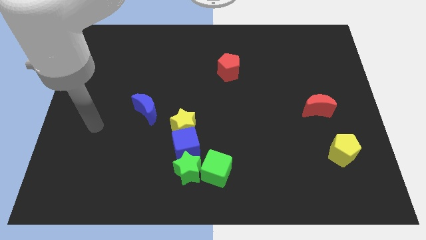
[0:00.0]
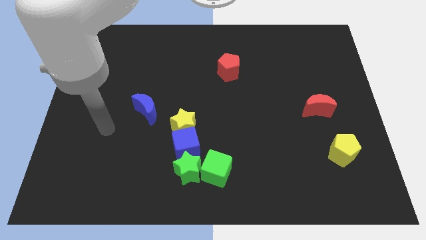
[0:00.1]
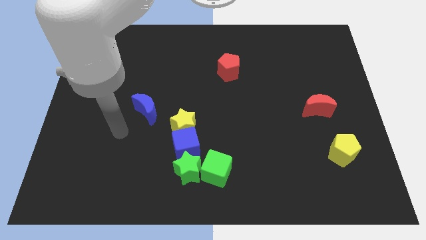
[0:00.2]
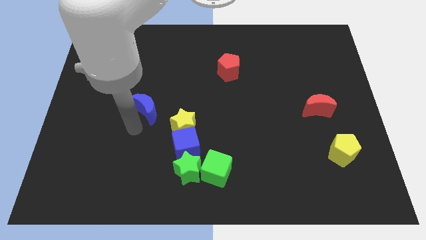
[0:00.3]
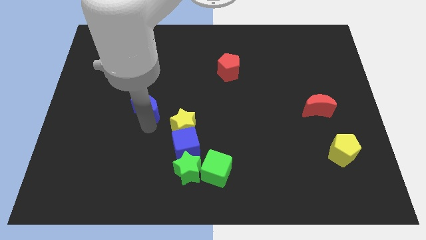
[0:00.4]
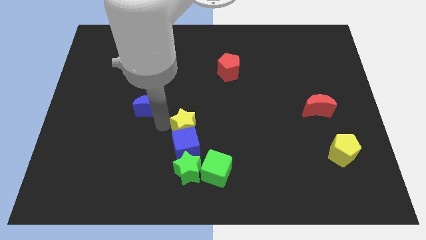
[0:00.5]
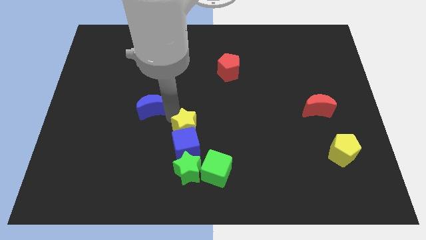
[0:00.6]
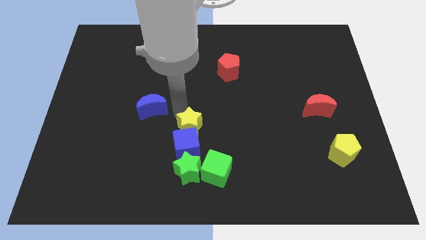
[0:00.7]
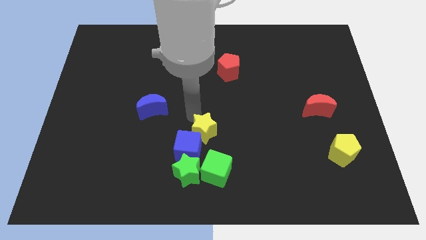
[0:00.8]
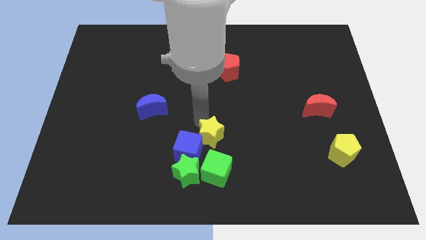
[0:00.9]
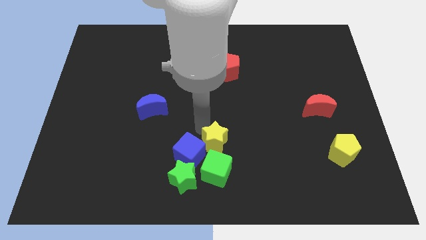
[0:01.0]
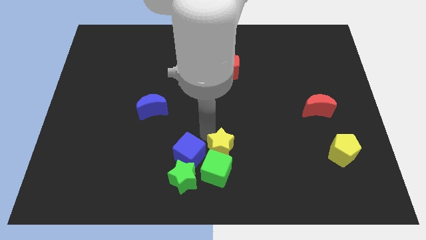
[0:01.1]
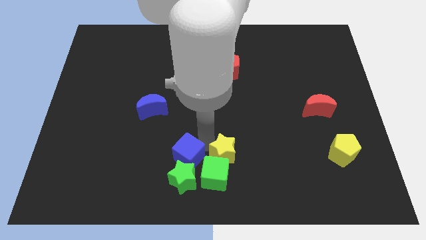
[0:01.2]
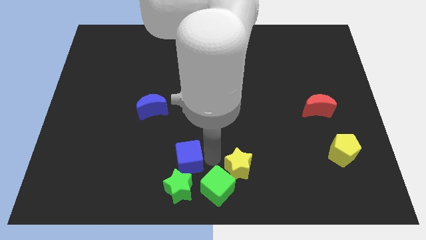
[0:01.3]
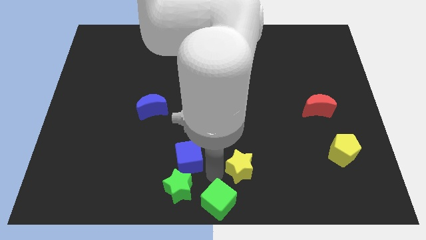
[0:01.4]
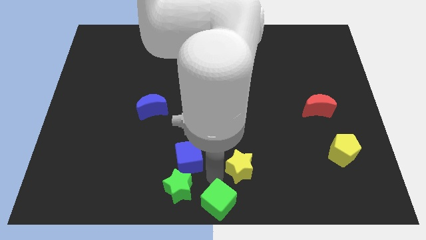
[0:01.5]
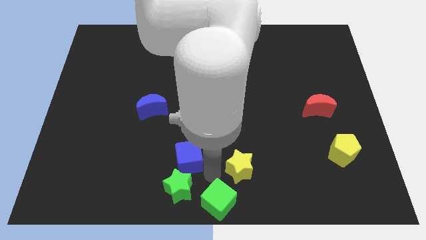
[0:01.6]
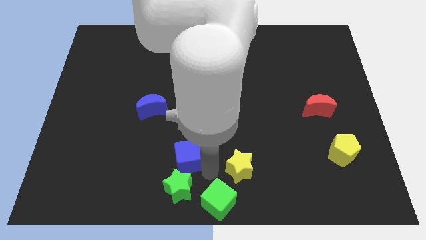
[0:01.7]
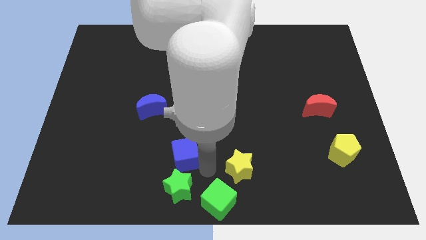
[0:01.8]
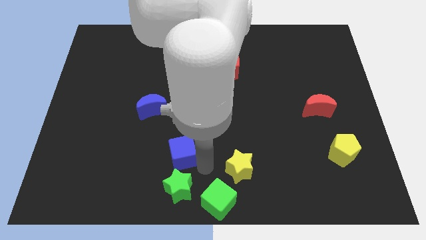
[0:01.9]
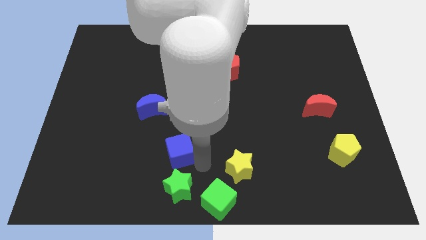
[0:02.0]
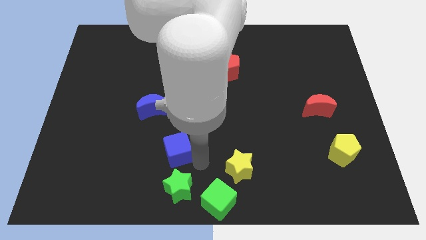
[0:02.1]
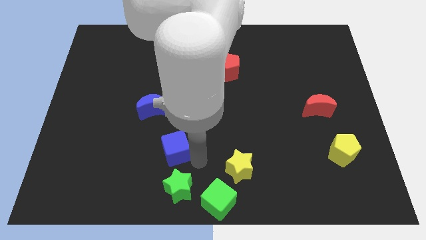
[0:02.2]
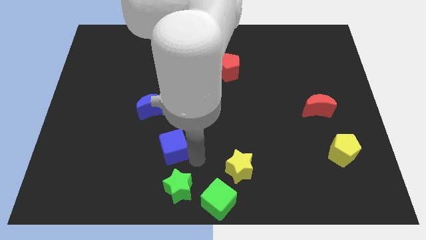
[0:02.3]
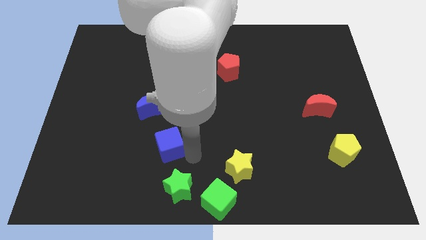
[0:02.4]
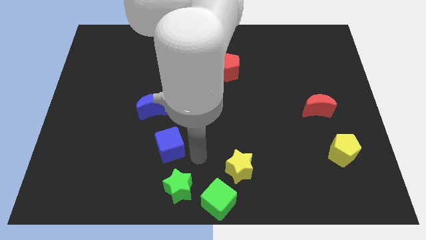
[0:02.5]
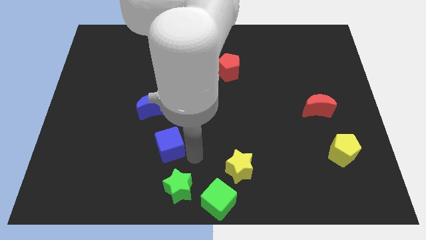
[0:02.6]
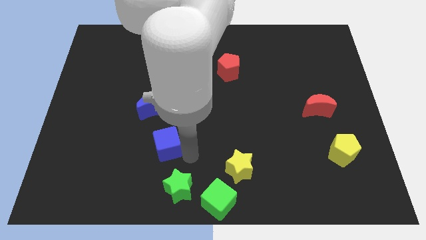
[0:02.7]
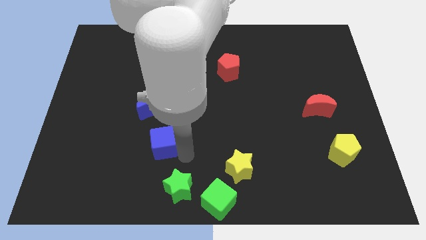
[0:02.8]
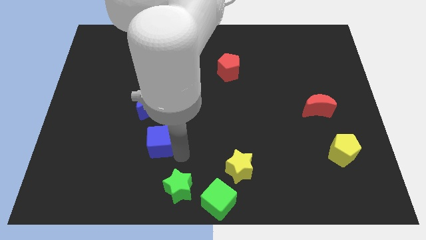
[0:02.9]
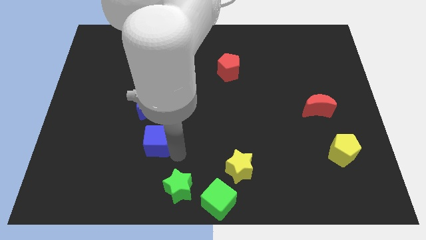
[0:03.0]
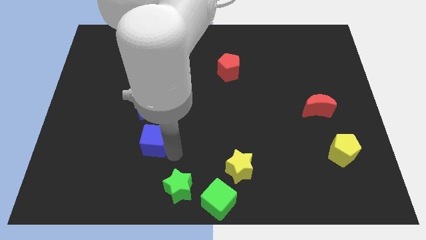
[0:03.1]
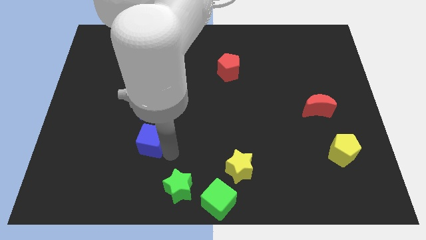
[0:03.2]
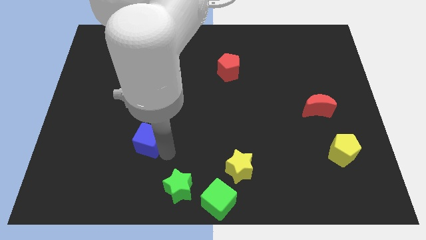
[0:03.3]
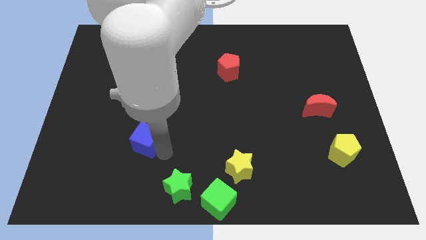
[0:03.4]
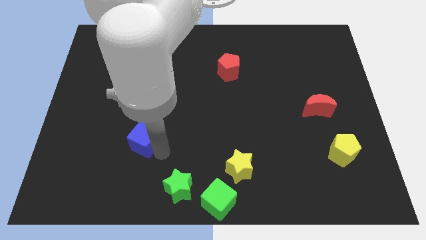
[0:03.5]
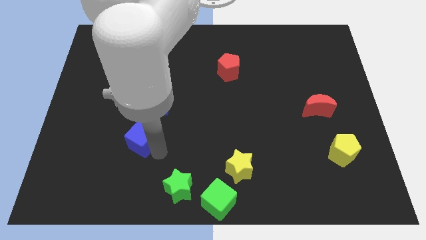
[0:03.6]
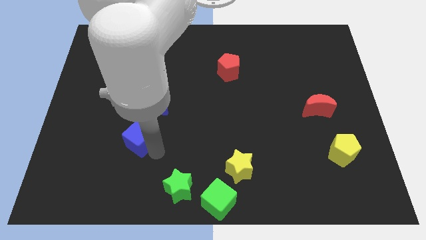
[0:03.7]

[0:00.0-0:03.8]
slightly push the blue cube upwards and to the left diagonally

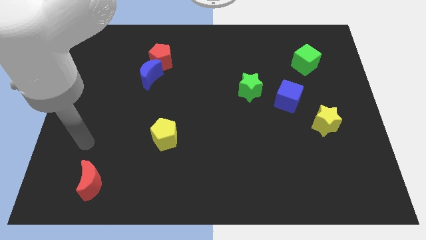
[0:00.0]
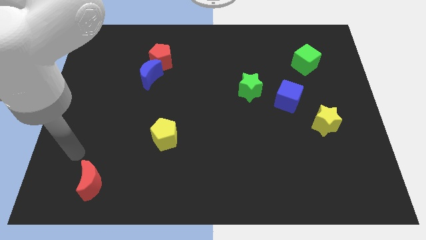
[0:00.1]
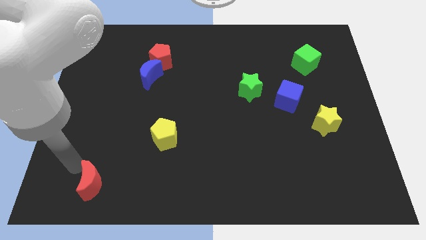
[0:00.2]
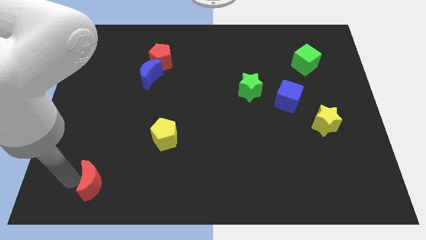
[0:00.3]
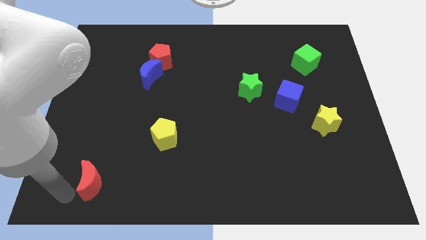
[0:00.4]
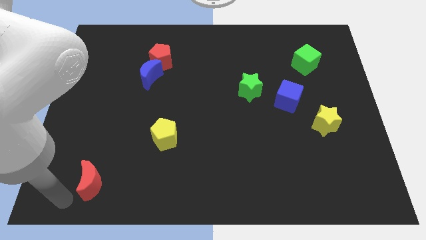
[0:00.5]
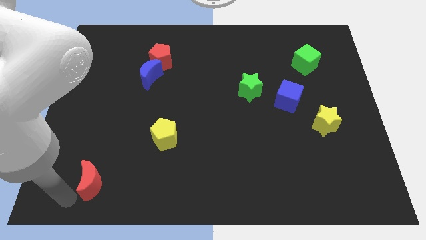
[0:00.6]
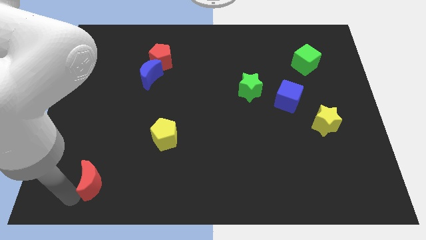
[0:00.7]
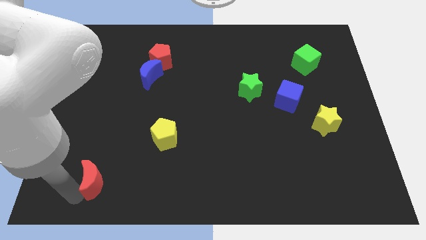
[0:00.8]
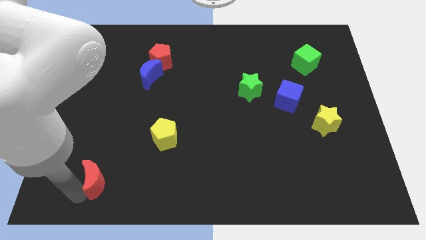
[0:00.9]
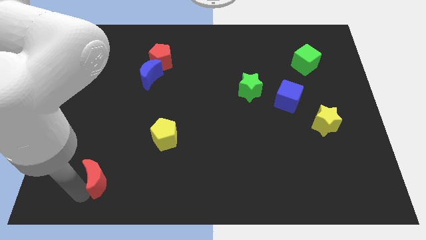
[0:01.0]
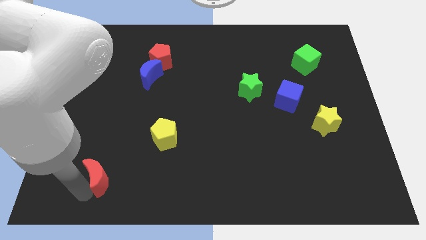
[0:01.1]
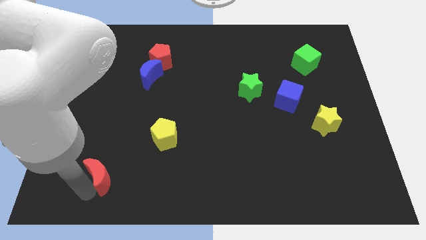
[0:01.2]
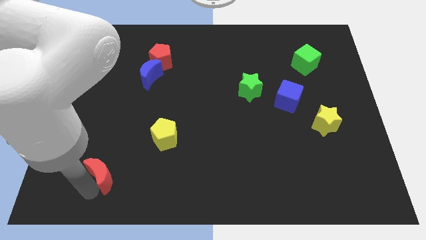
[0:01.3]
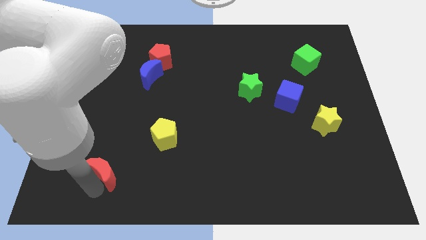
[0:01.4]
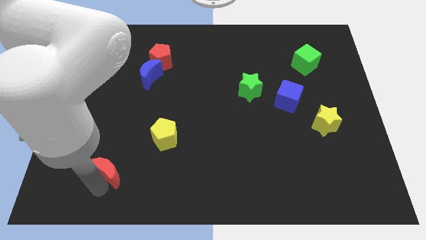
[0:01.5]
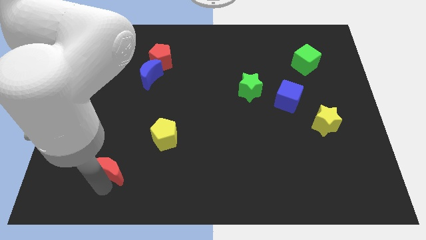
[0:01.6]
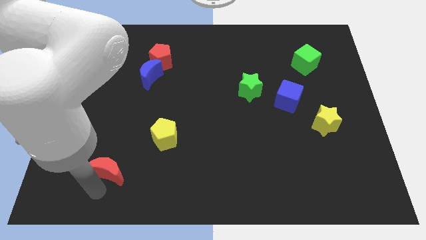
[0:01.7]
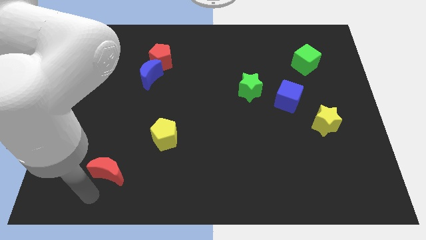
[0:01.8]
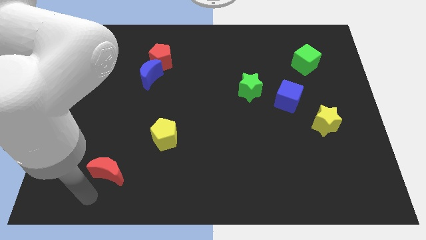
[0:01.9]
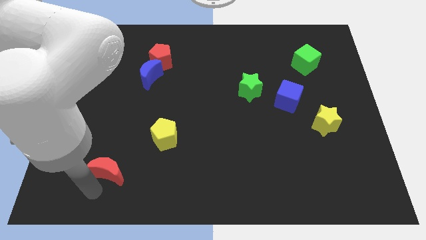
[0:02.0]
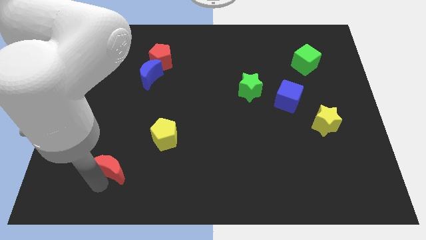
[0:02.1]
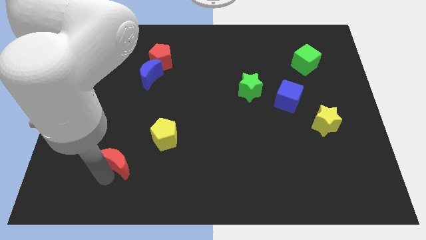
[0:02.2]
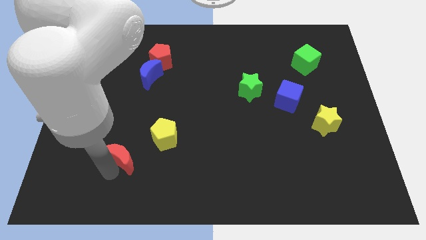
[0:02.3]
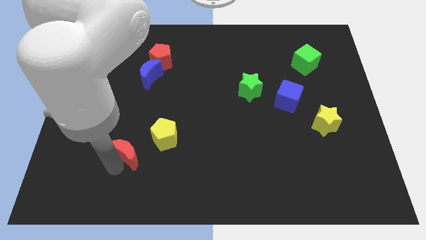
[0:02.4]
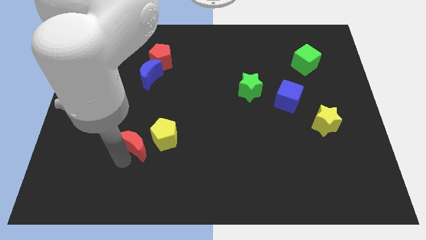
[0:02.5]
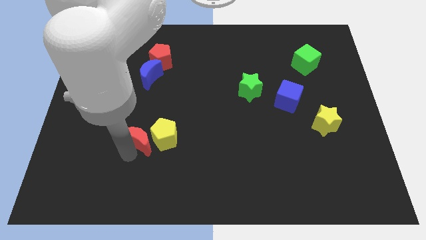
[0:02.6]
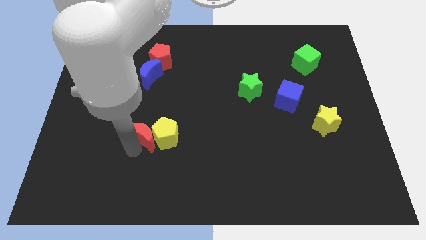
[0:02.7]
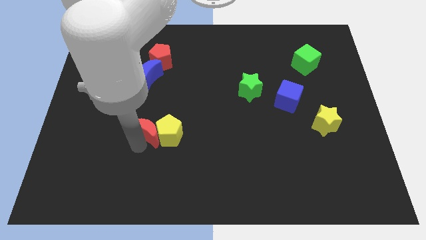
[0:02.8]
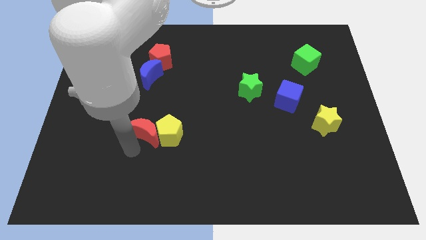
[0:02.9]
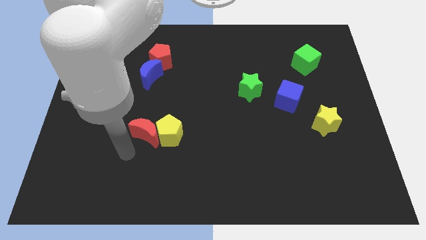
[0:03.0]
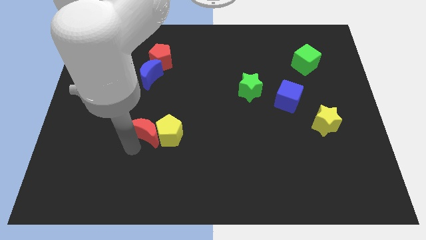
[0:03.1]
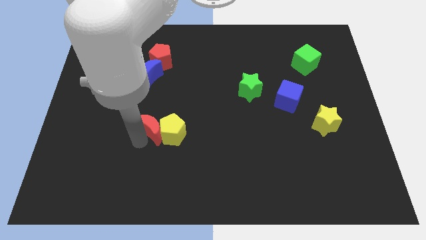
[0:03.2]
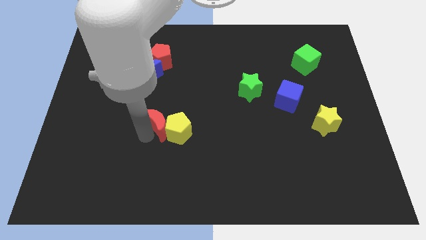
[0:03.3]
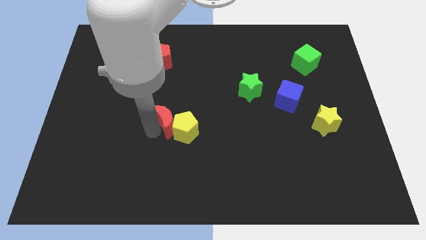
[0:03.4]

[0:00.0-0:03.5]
move the red moon up and then right

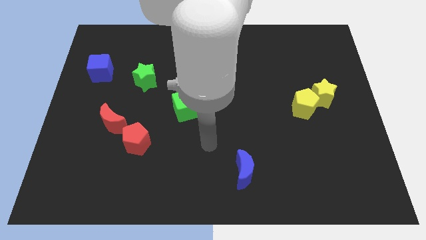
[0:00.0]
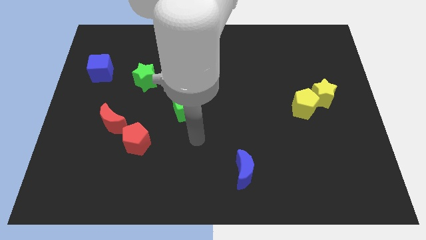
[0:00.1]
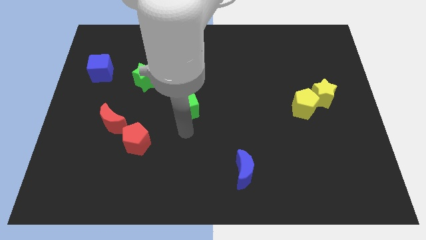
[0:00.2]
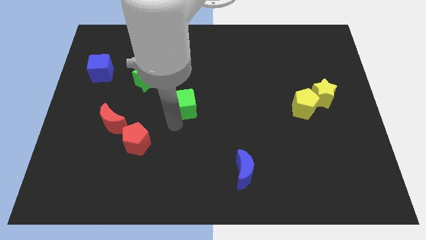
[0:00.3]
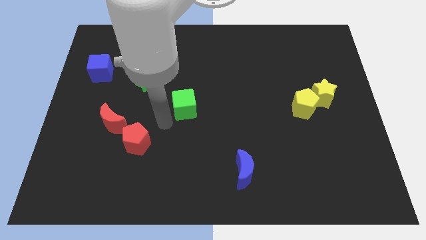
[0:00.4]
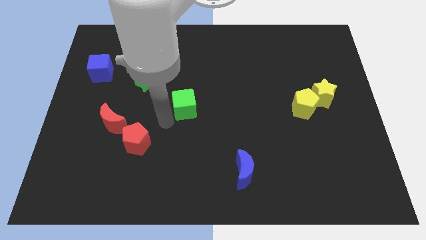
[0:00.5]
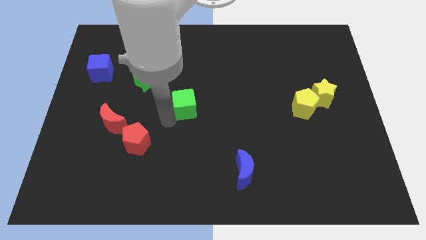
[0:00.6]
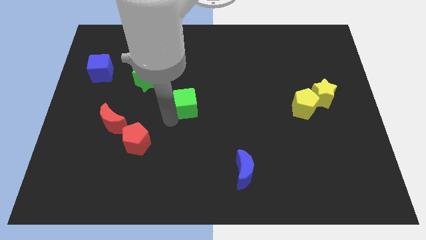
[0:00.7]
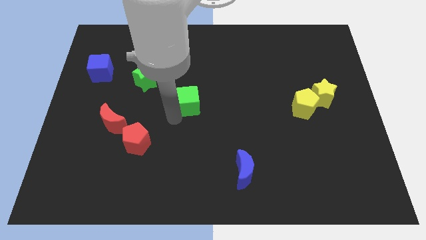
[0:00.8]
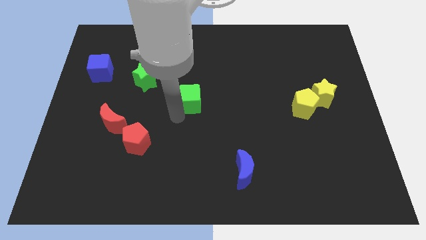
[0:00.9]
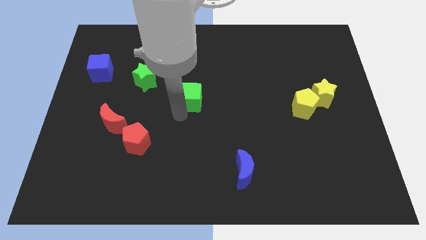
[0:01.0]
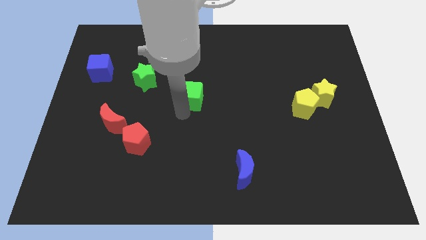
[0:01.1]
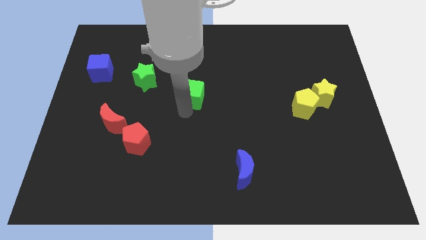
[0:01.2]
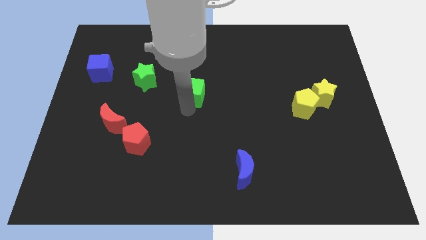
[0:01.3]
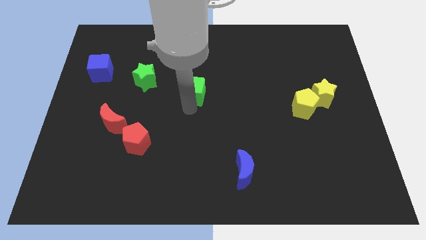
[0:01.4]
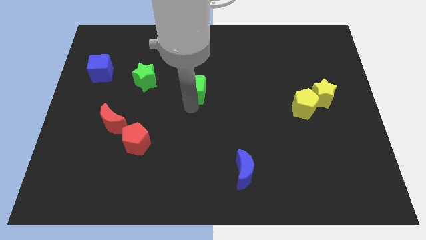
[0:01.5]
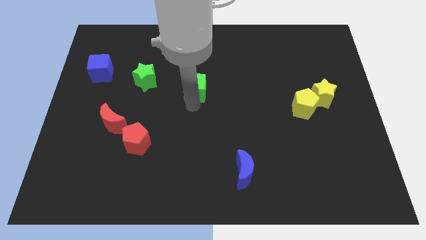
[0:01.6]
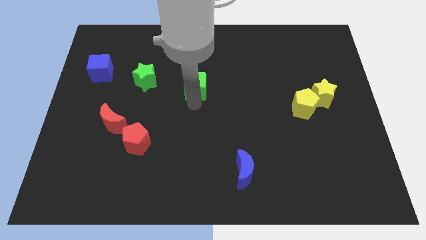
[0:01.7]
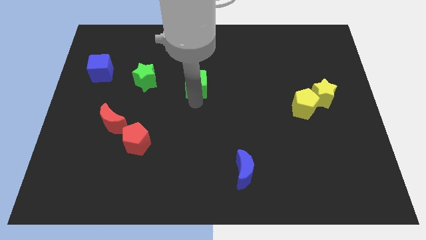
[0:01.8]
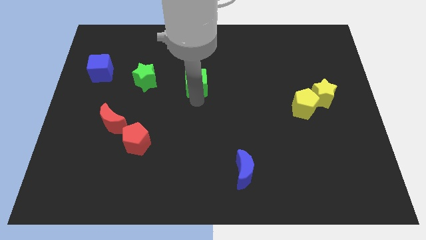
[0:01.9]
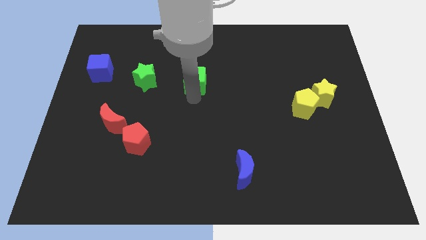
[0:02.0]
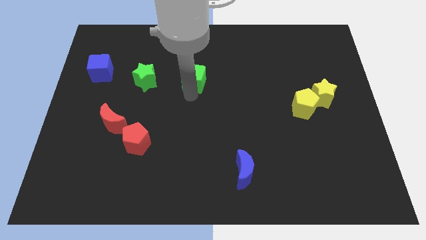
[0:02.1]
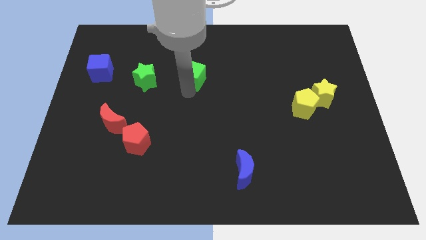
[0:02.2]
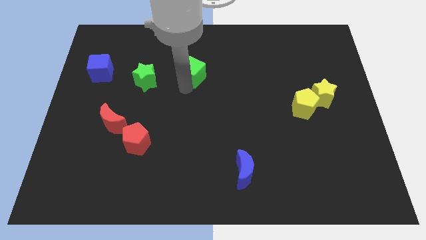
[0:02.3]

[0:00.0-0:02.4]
push the green cube slightly diagonally upwards and right
